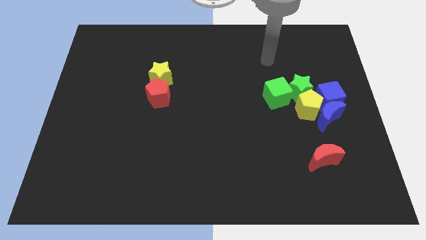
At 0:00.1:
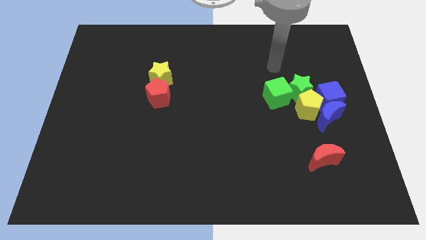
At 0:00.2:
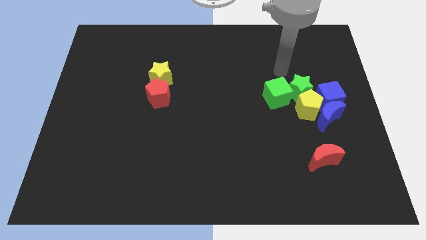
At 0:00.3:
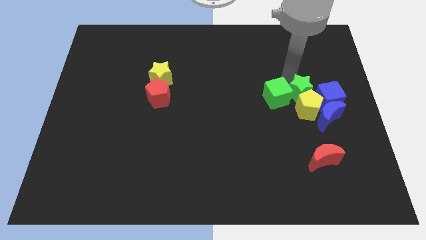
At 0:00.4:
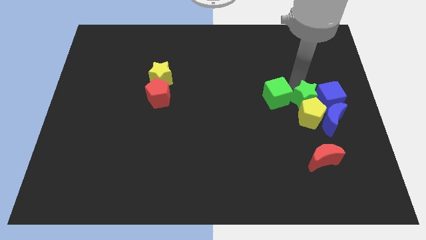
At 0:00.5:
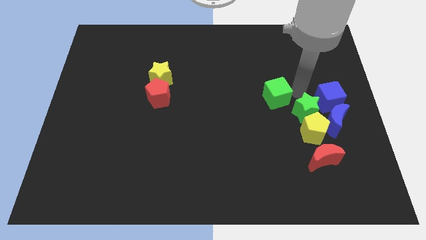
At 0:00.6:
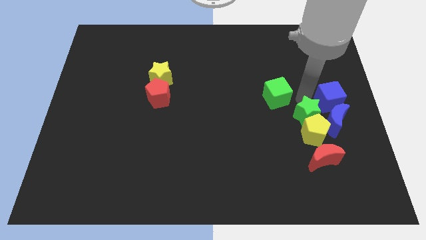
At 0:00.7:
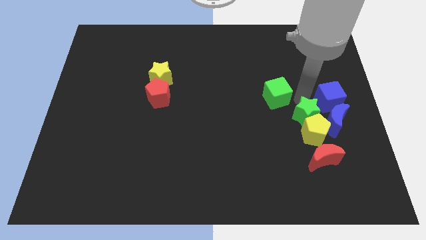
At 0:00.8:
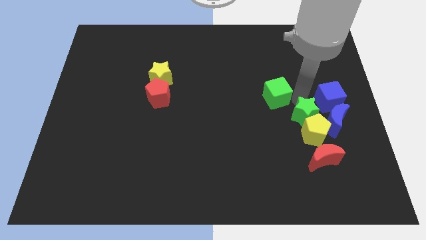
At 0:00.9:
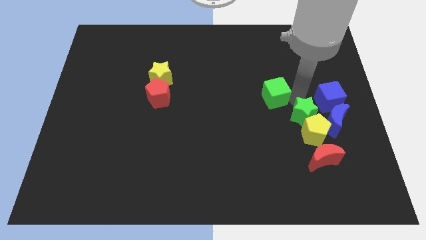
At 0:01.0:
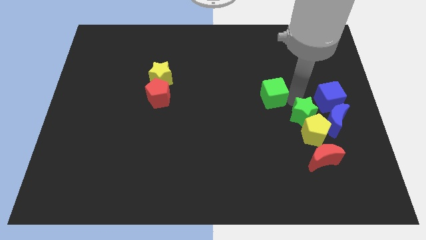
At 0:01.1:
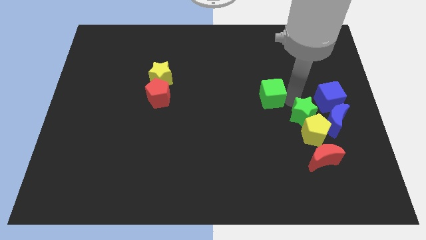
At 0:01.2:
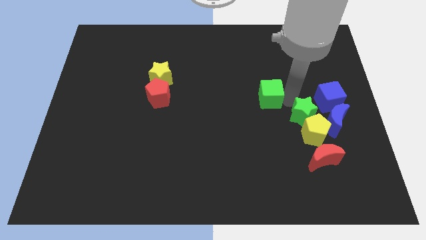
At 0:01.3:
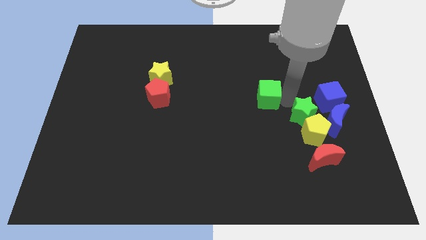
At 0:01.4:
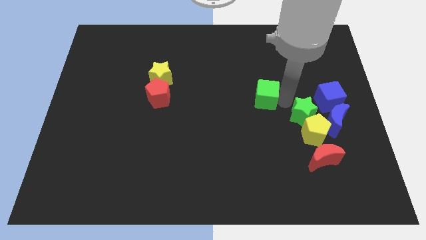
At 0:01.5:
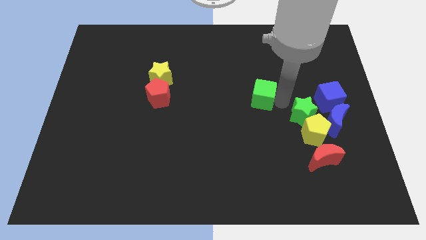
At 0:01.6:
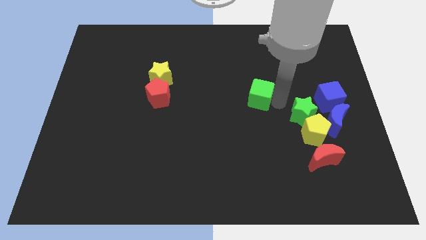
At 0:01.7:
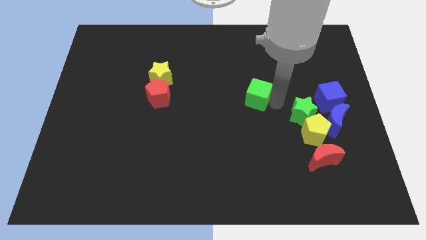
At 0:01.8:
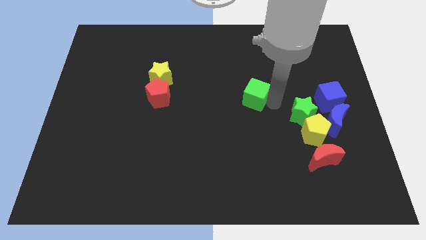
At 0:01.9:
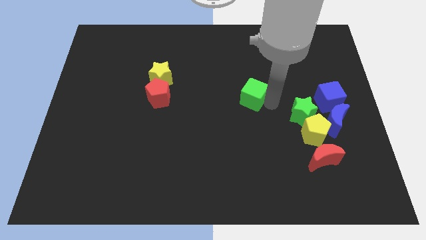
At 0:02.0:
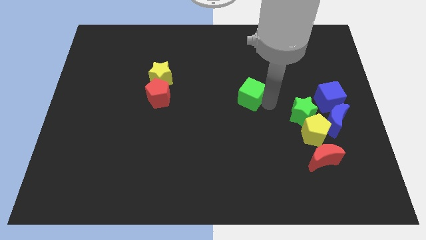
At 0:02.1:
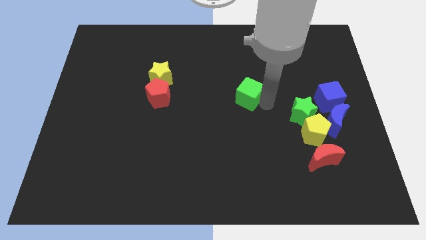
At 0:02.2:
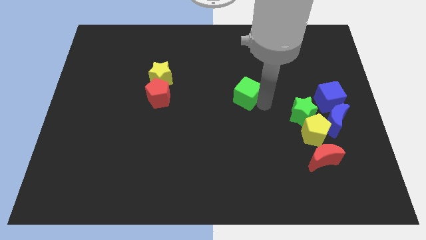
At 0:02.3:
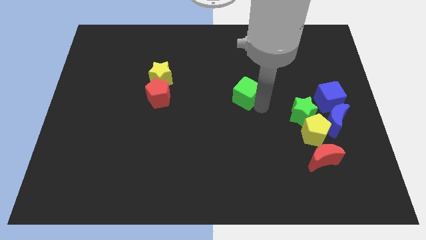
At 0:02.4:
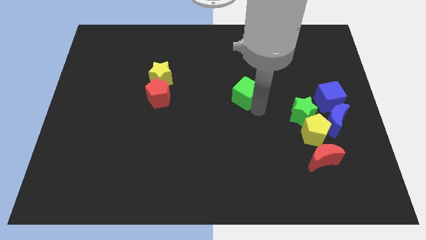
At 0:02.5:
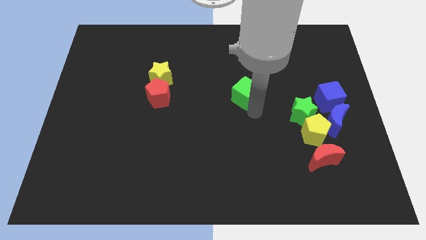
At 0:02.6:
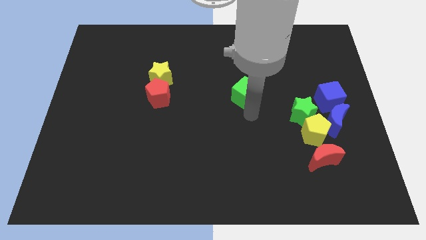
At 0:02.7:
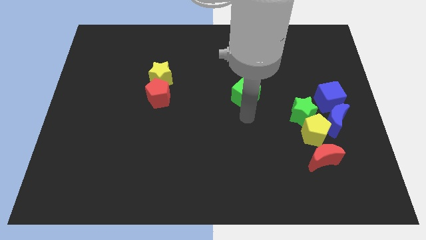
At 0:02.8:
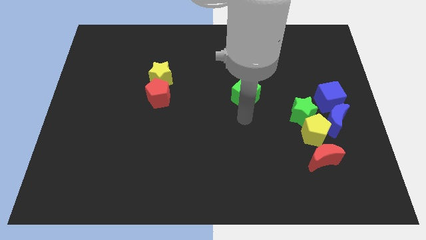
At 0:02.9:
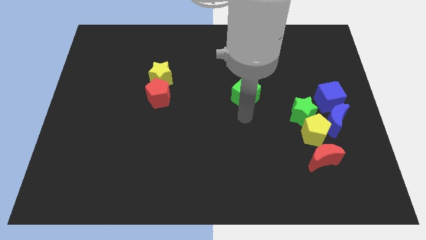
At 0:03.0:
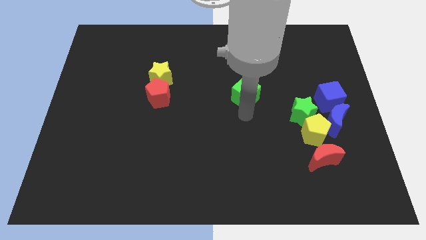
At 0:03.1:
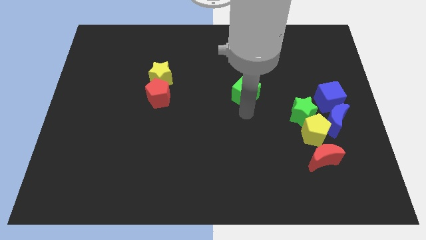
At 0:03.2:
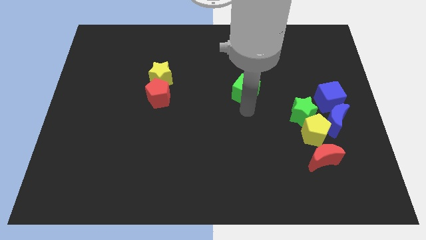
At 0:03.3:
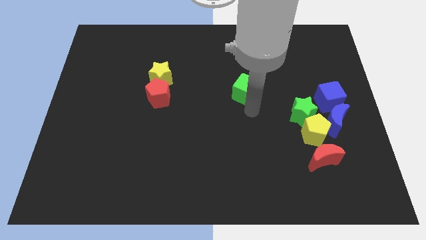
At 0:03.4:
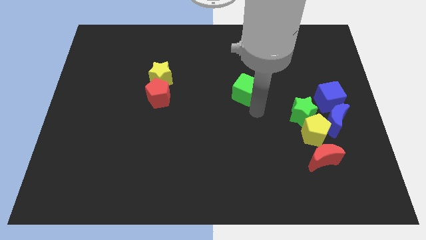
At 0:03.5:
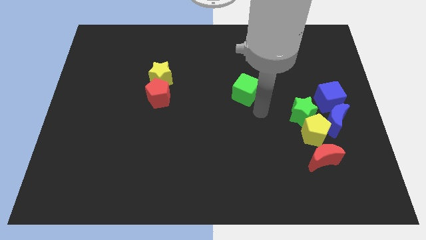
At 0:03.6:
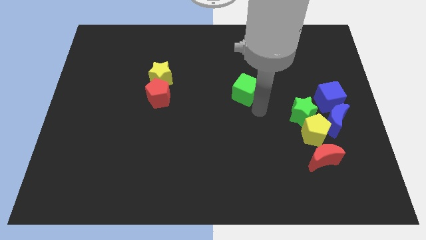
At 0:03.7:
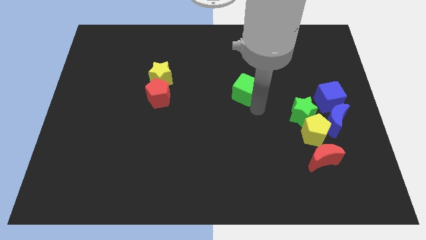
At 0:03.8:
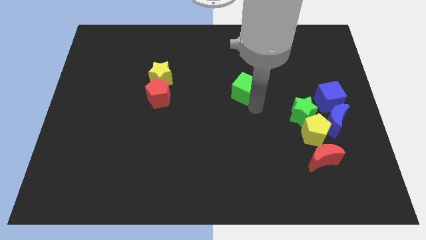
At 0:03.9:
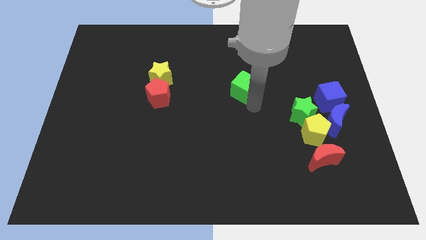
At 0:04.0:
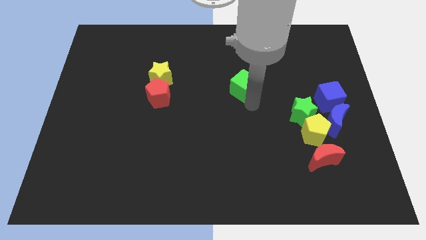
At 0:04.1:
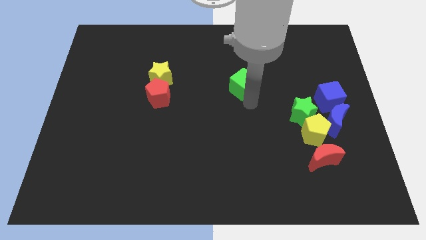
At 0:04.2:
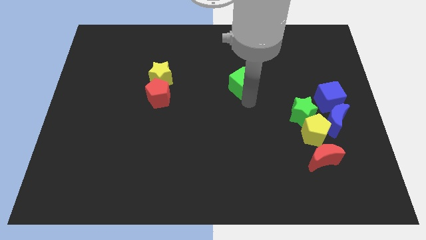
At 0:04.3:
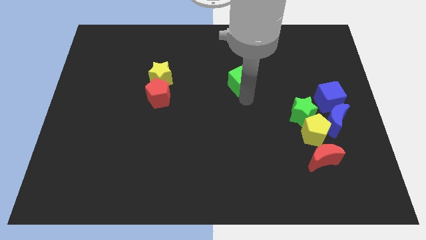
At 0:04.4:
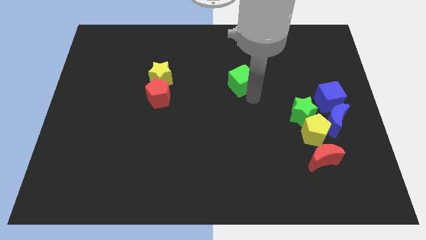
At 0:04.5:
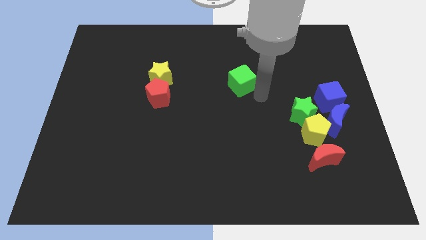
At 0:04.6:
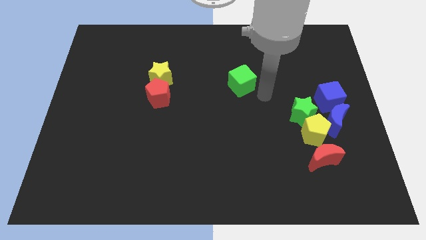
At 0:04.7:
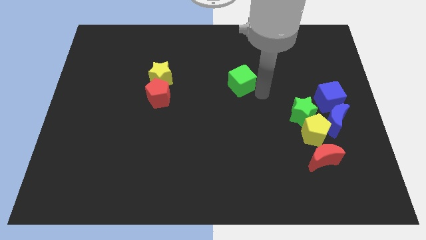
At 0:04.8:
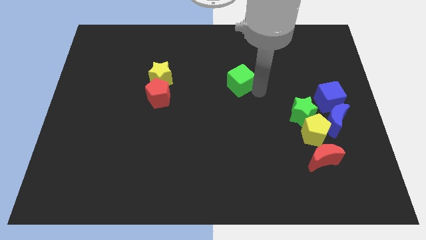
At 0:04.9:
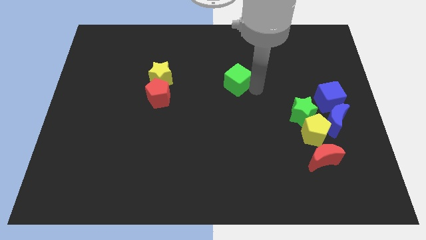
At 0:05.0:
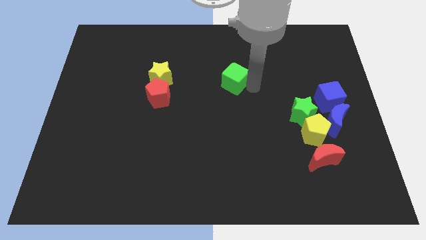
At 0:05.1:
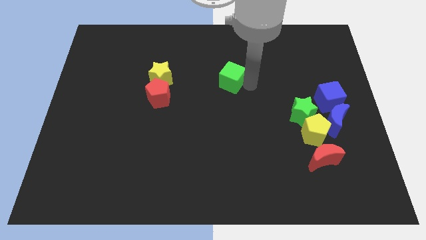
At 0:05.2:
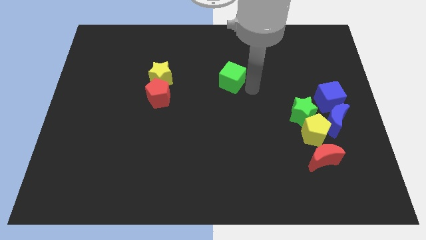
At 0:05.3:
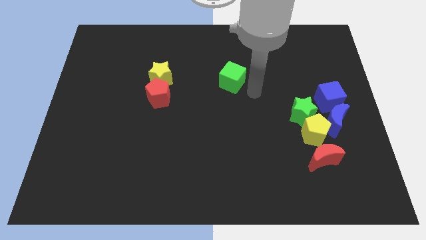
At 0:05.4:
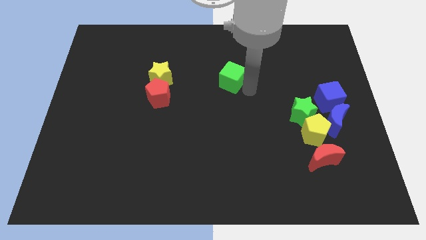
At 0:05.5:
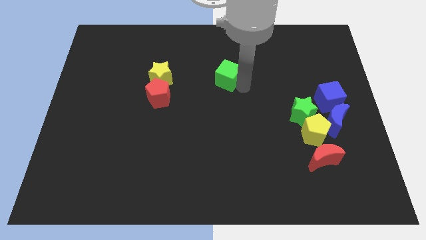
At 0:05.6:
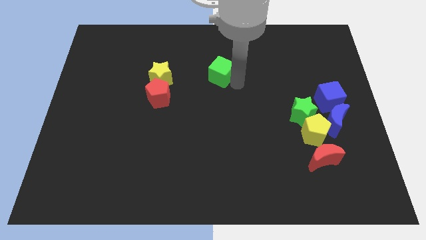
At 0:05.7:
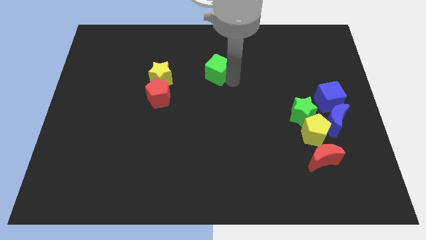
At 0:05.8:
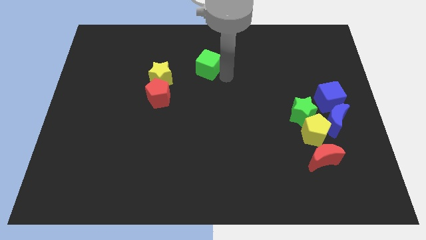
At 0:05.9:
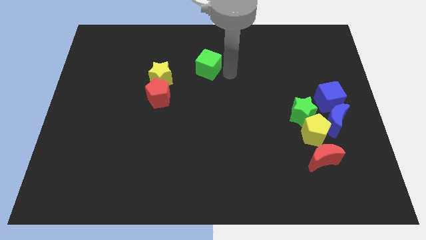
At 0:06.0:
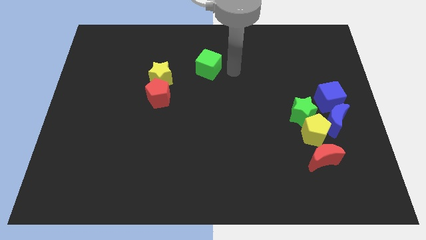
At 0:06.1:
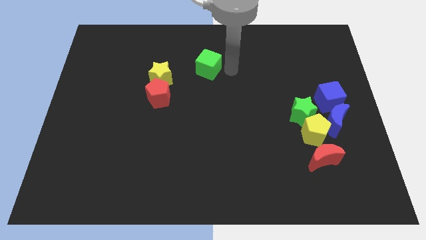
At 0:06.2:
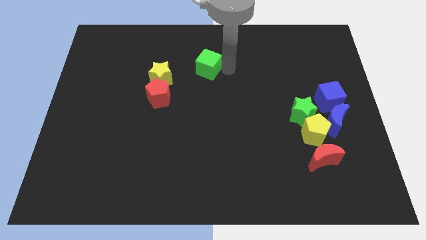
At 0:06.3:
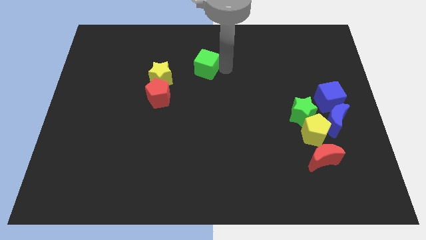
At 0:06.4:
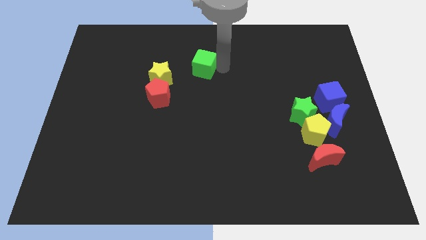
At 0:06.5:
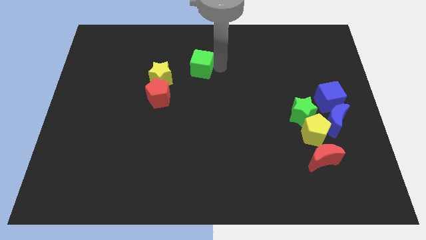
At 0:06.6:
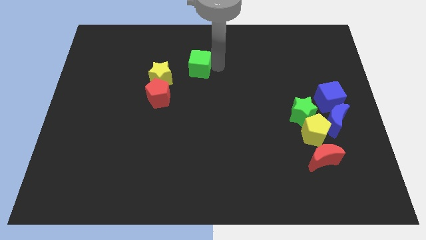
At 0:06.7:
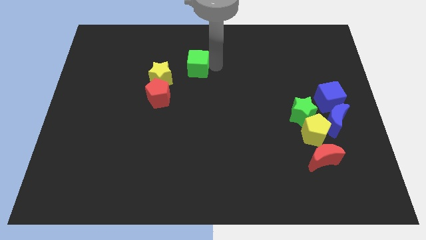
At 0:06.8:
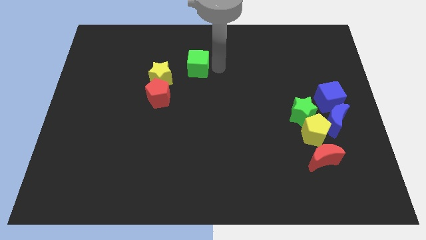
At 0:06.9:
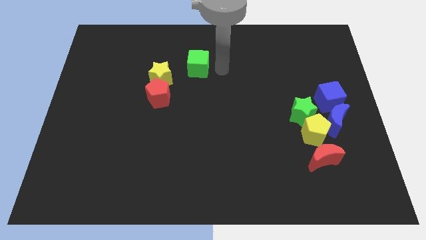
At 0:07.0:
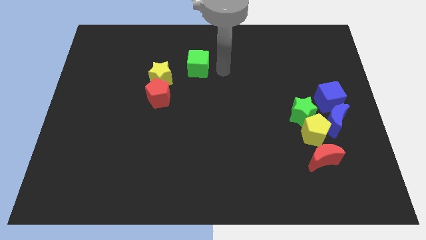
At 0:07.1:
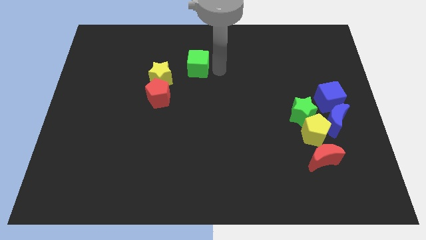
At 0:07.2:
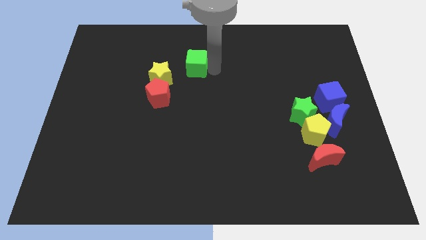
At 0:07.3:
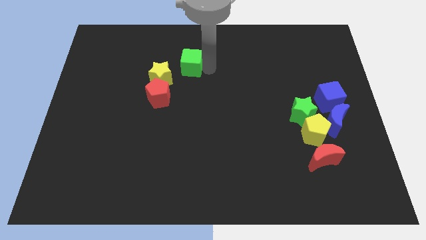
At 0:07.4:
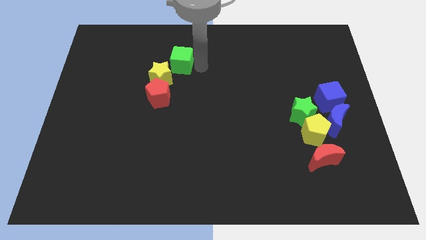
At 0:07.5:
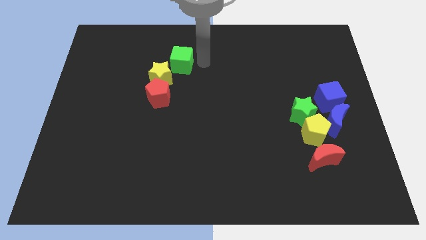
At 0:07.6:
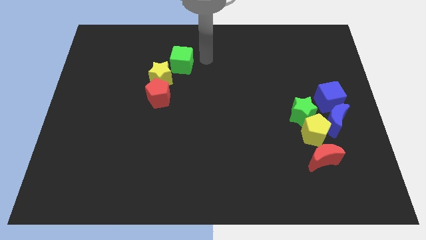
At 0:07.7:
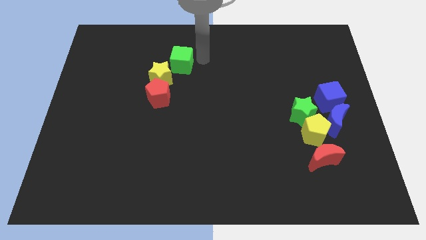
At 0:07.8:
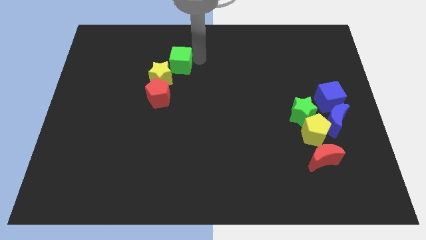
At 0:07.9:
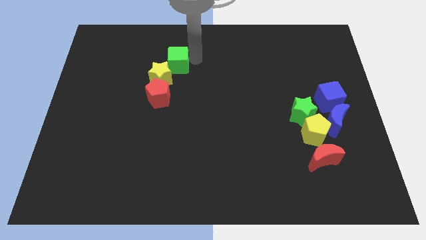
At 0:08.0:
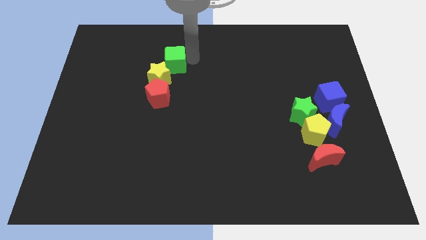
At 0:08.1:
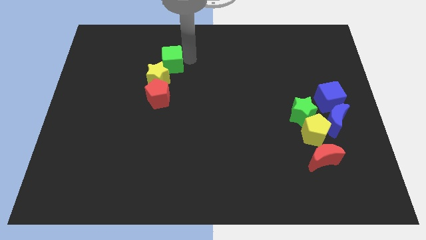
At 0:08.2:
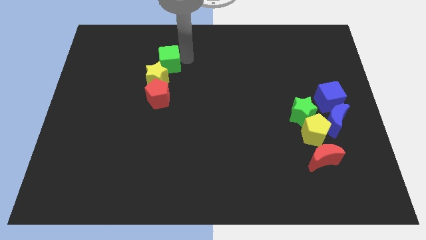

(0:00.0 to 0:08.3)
push the green cube to the left
